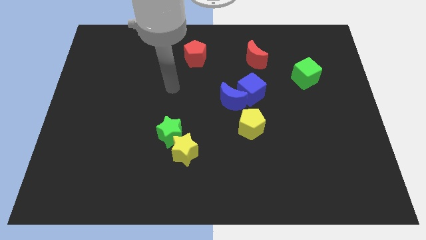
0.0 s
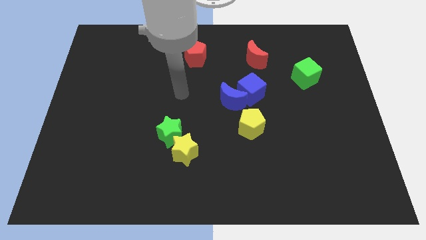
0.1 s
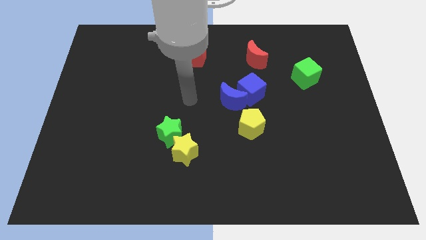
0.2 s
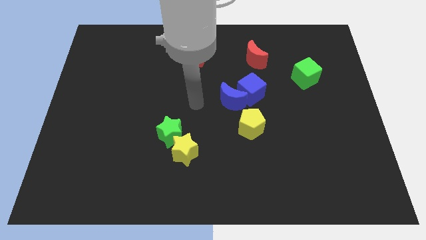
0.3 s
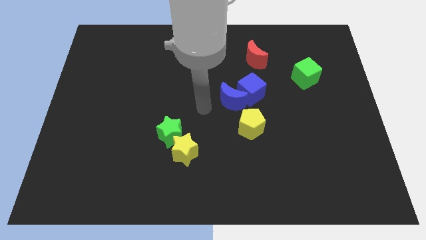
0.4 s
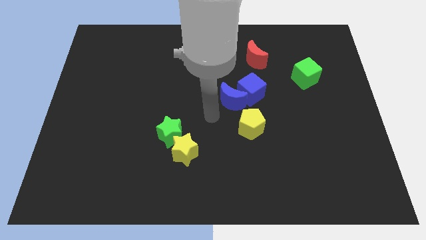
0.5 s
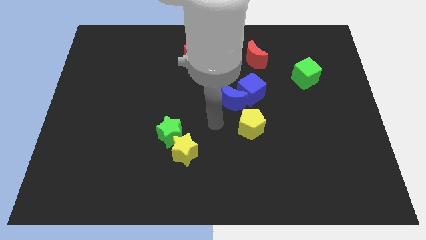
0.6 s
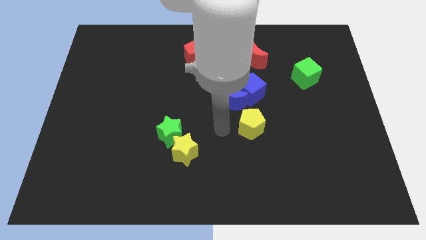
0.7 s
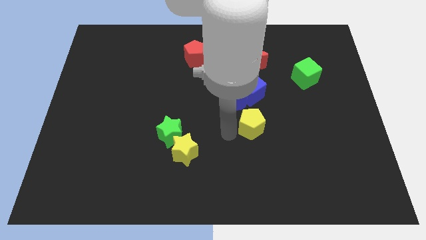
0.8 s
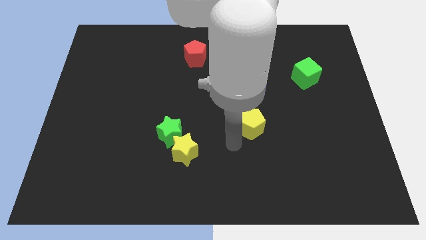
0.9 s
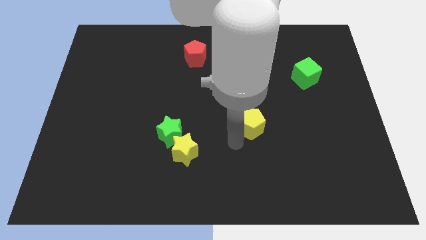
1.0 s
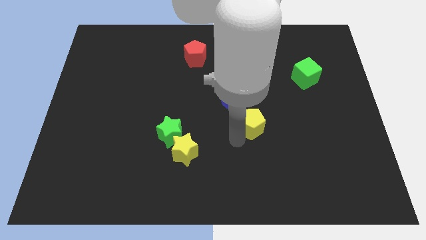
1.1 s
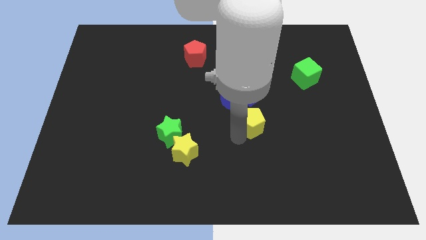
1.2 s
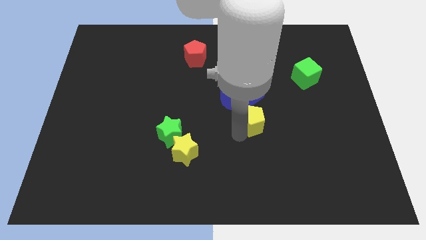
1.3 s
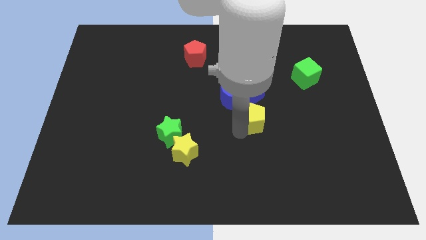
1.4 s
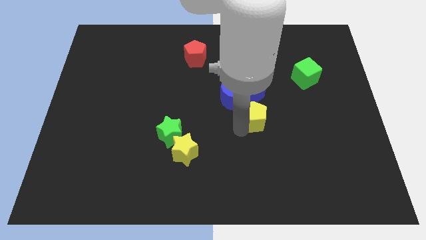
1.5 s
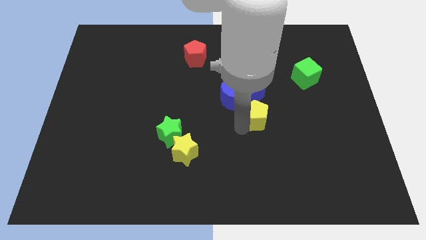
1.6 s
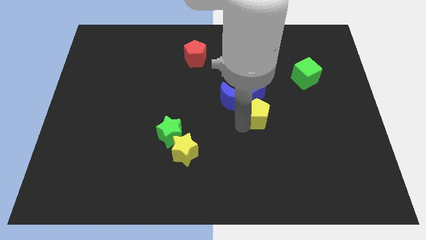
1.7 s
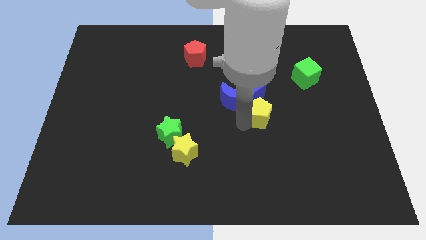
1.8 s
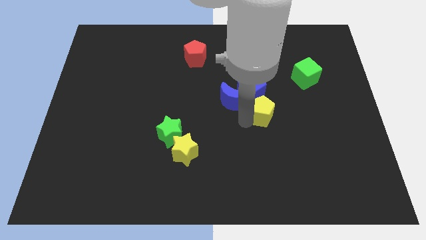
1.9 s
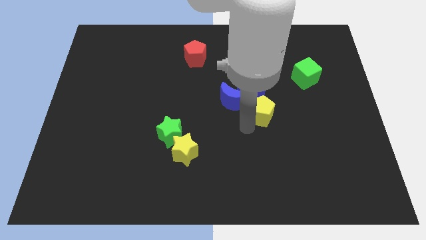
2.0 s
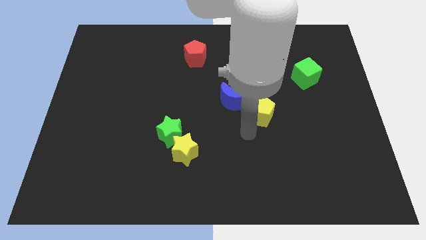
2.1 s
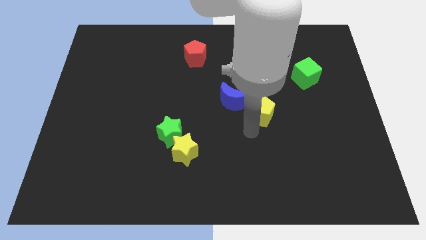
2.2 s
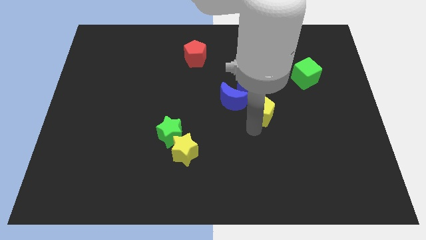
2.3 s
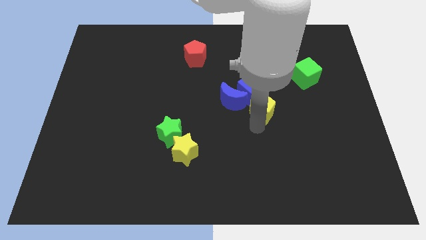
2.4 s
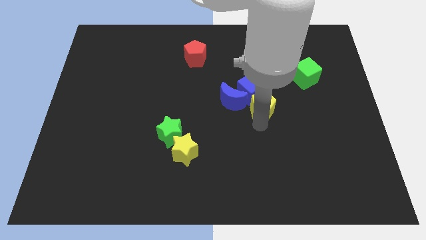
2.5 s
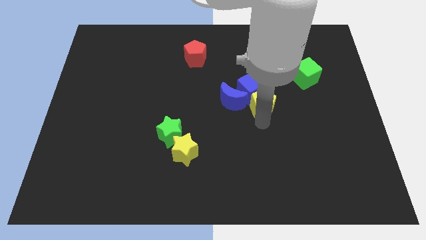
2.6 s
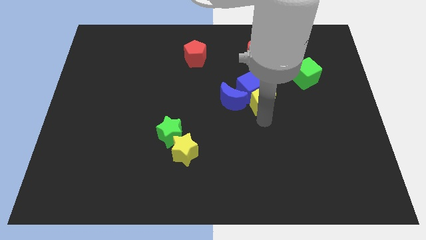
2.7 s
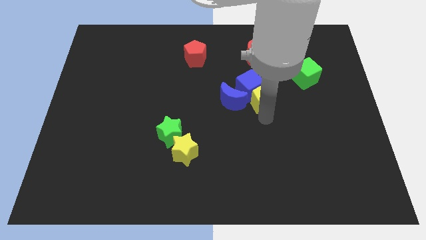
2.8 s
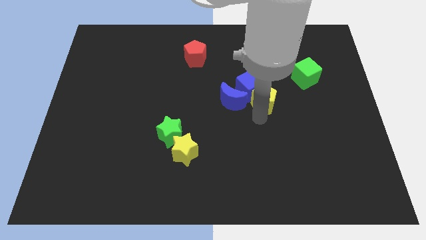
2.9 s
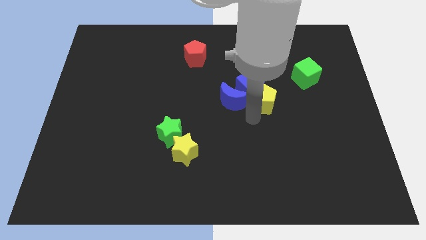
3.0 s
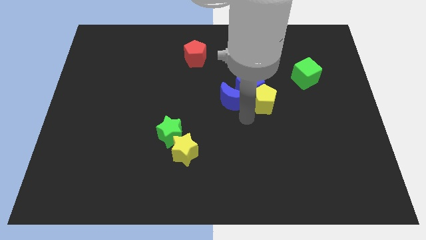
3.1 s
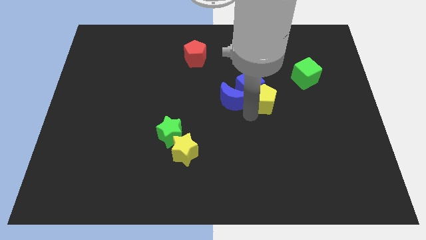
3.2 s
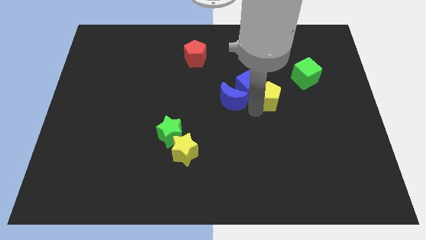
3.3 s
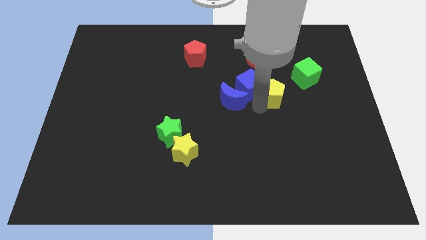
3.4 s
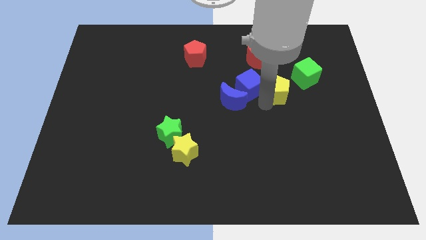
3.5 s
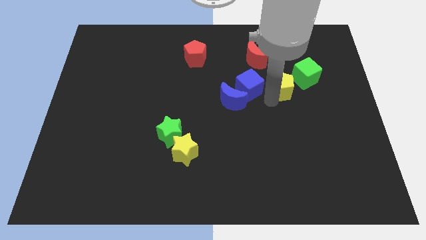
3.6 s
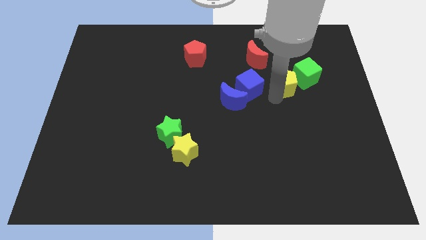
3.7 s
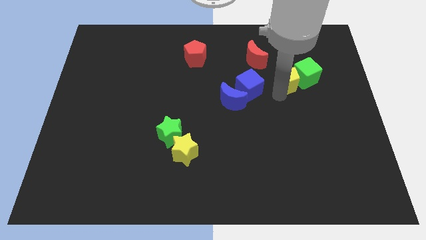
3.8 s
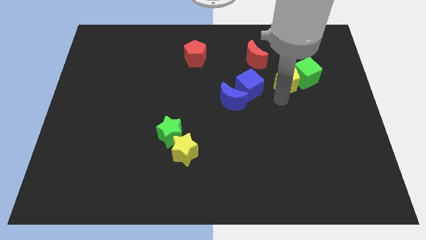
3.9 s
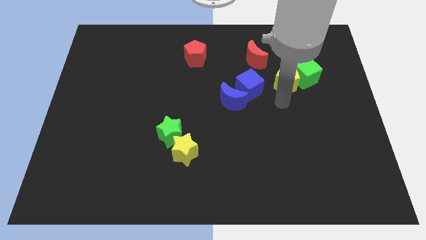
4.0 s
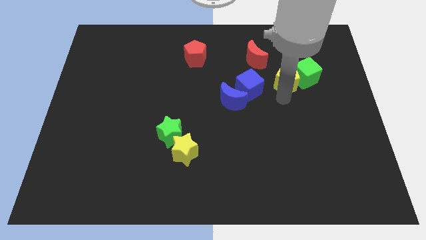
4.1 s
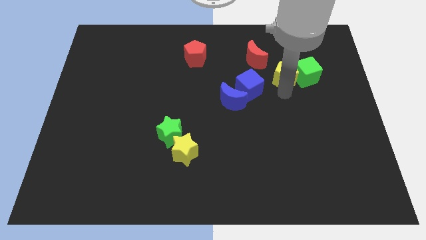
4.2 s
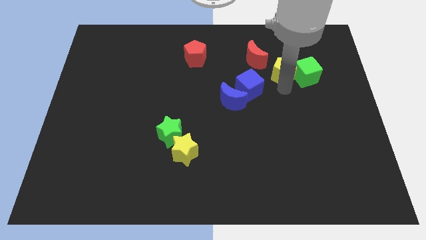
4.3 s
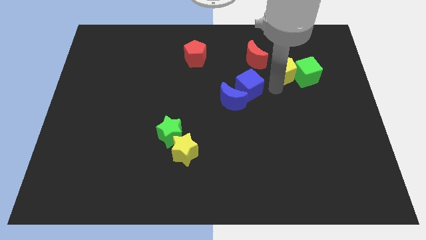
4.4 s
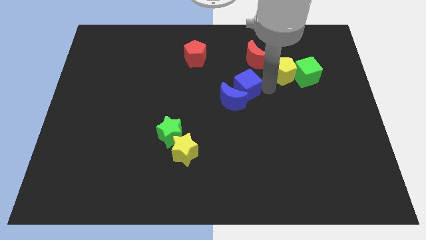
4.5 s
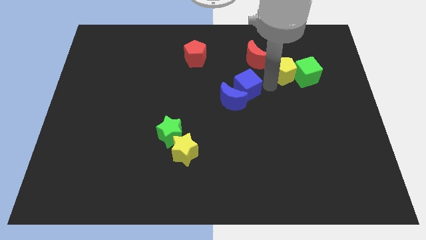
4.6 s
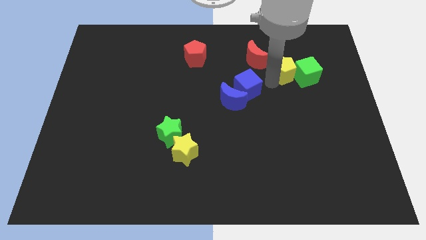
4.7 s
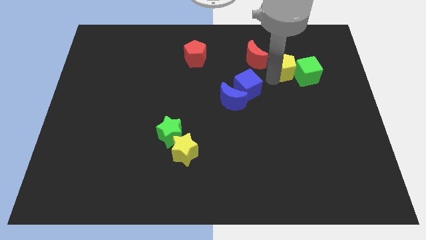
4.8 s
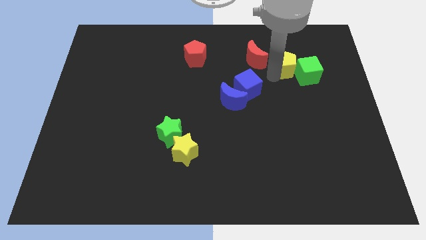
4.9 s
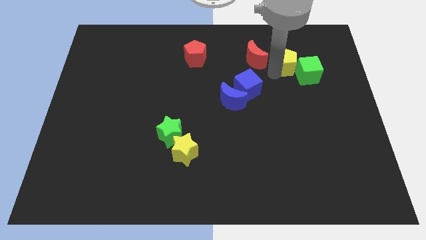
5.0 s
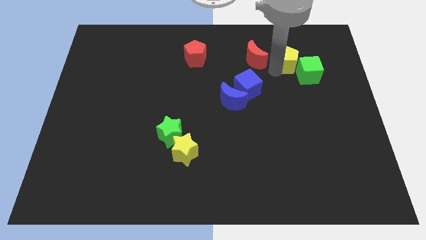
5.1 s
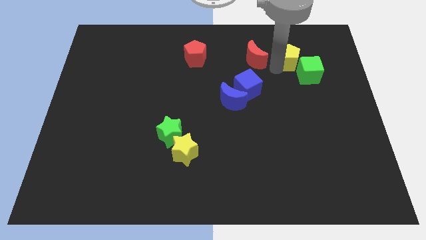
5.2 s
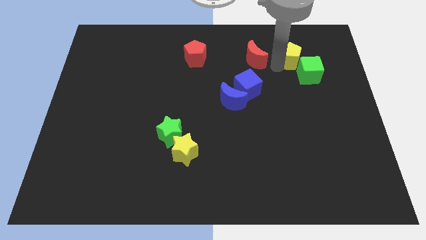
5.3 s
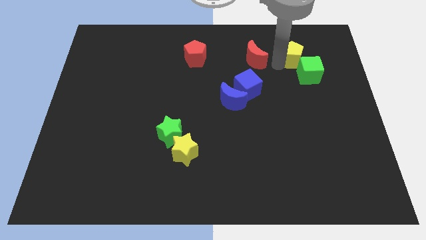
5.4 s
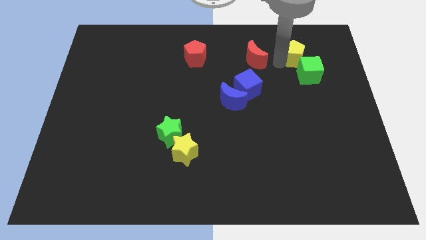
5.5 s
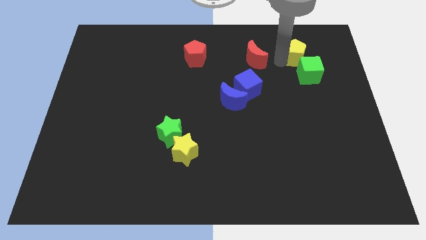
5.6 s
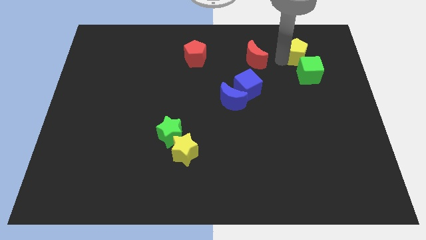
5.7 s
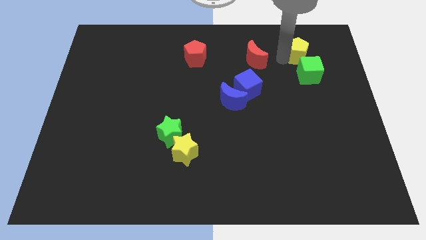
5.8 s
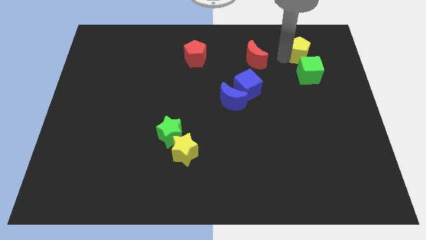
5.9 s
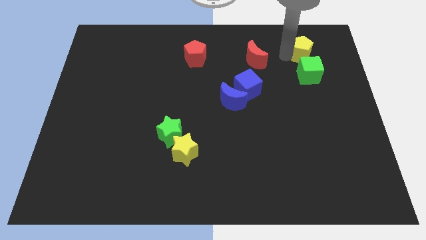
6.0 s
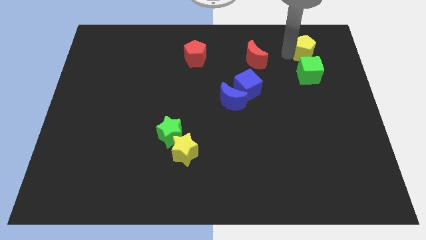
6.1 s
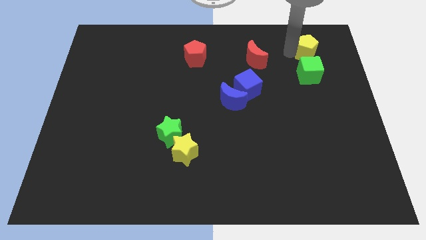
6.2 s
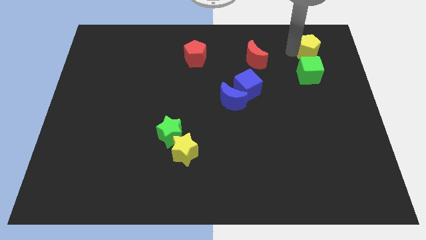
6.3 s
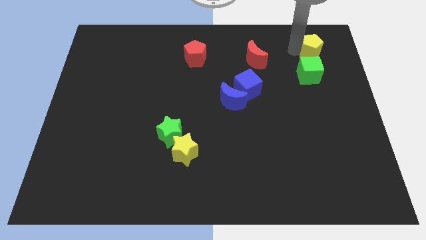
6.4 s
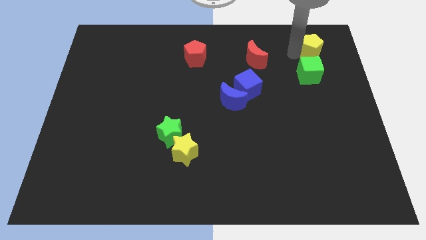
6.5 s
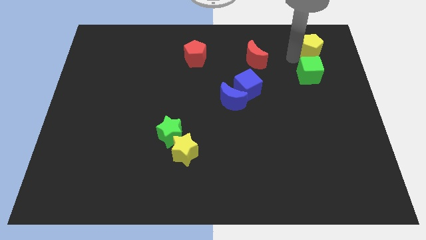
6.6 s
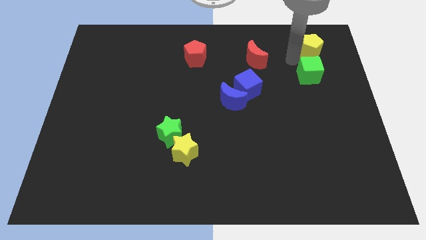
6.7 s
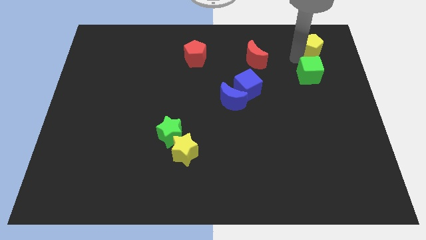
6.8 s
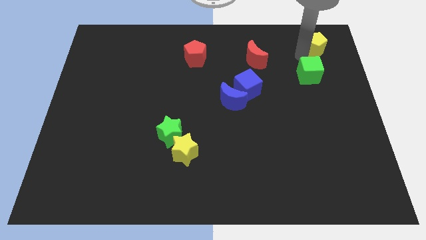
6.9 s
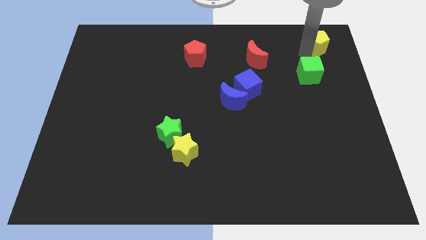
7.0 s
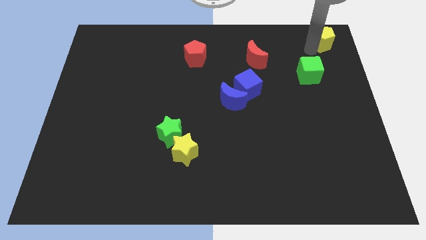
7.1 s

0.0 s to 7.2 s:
slide the yellow pentagon to the top right
